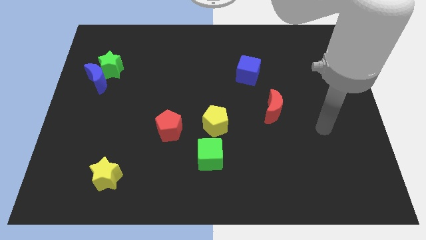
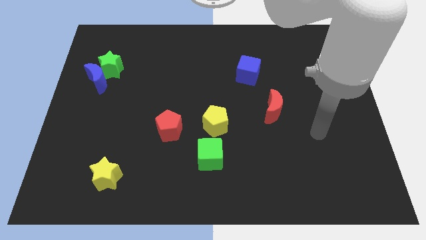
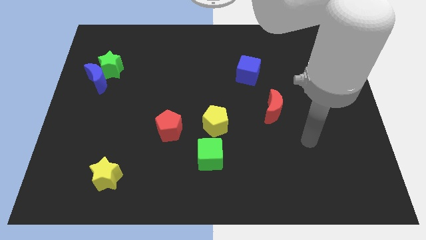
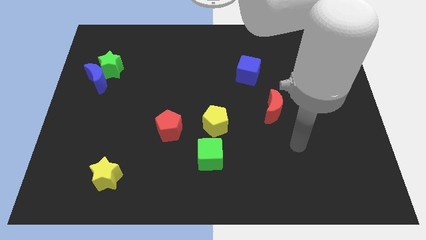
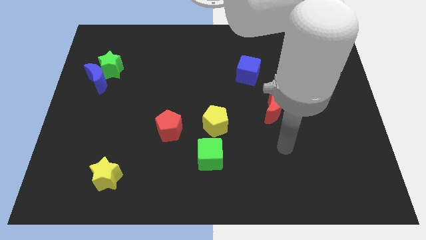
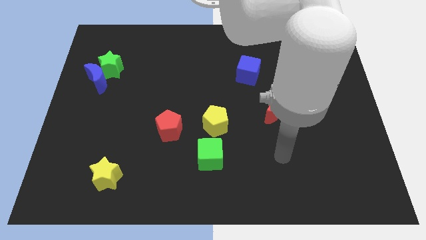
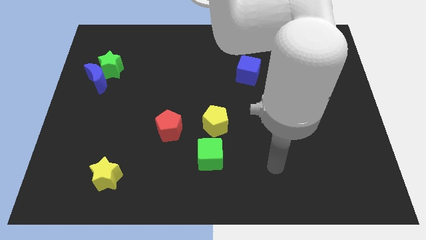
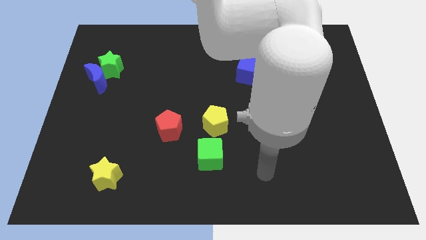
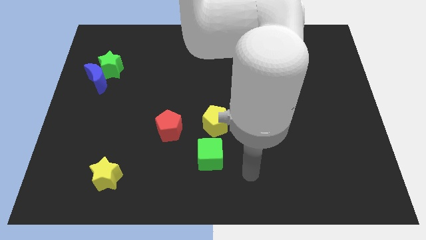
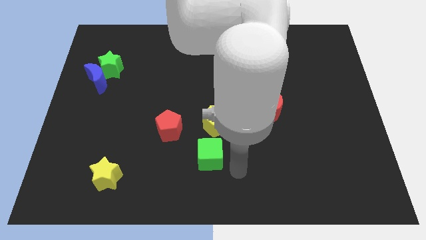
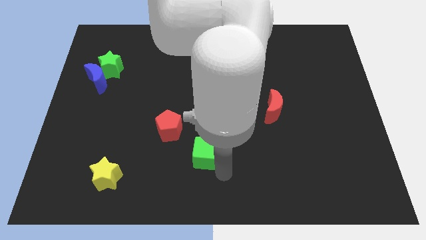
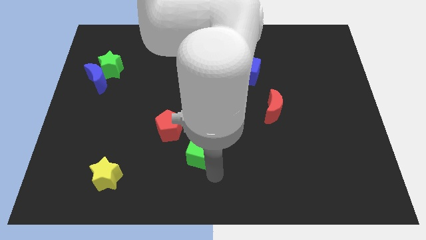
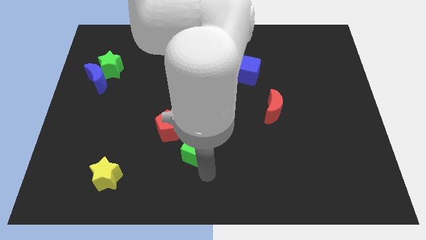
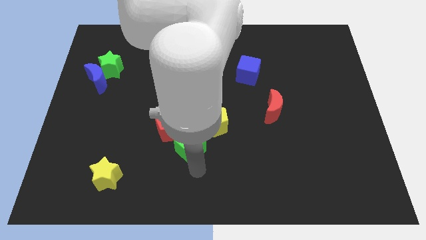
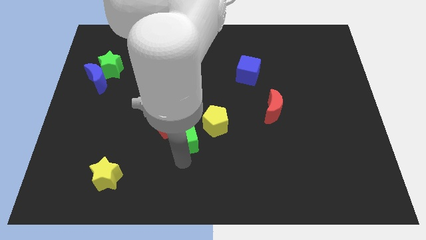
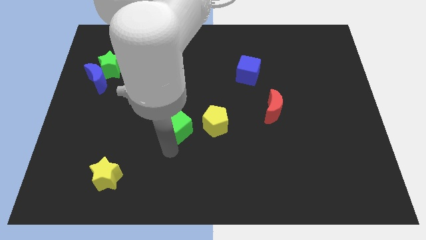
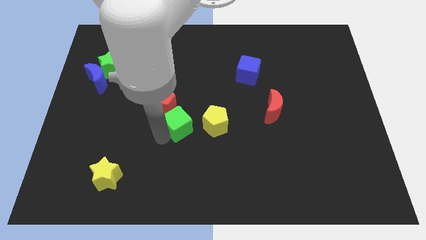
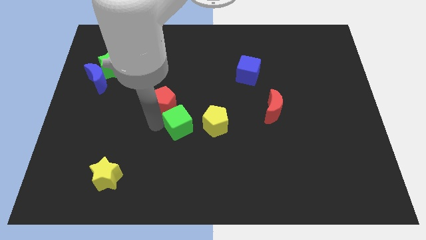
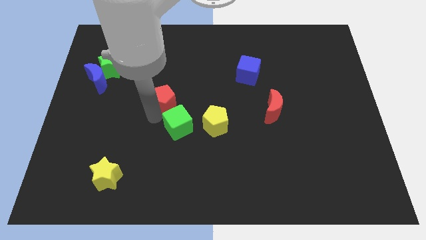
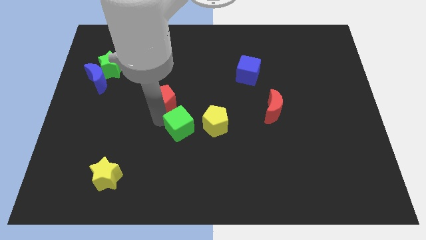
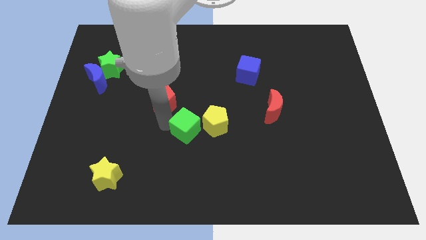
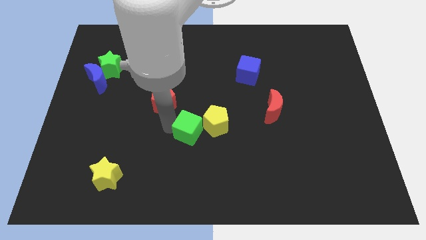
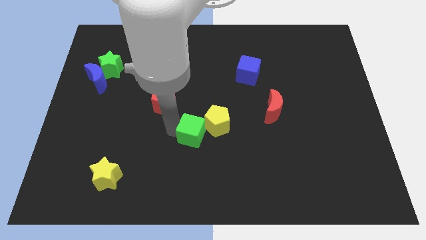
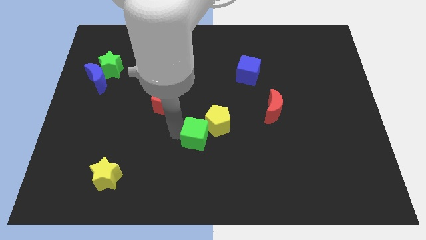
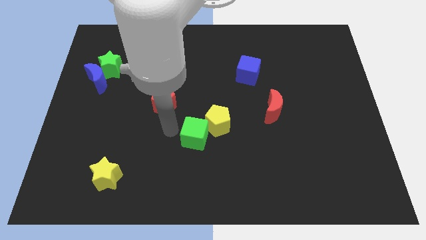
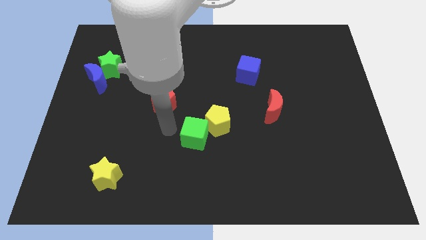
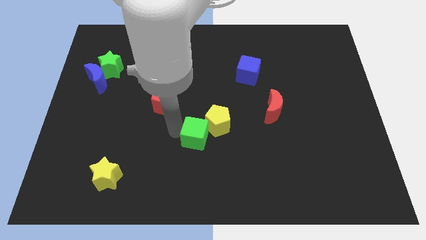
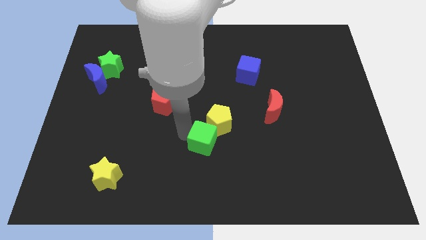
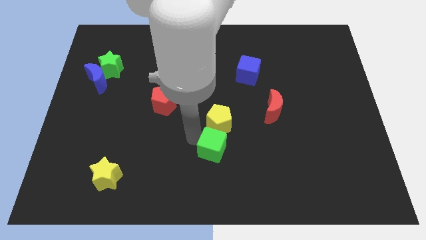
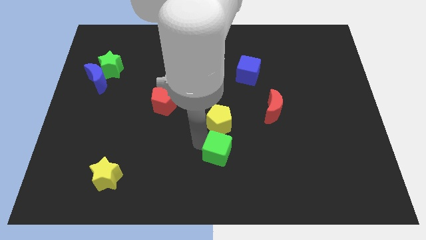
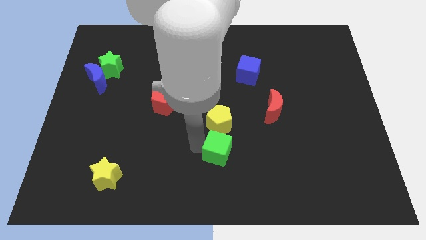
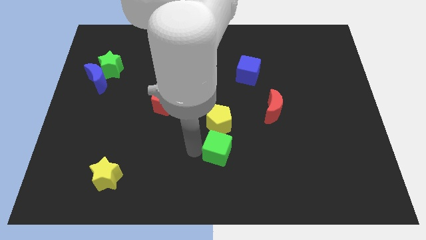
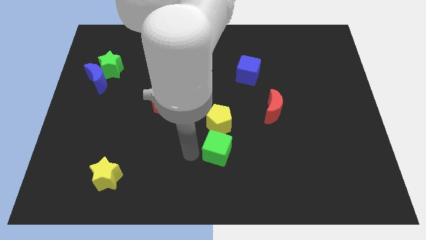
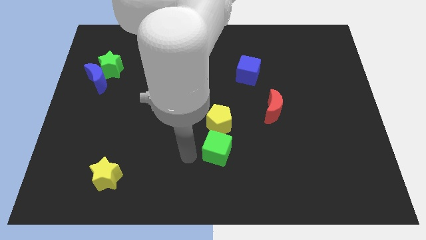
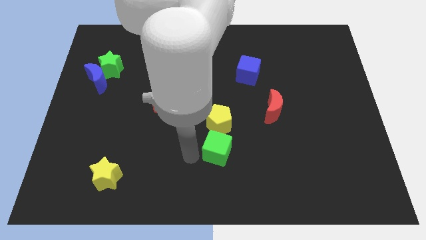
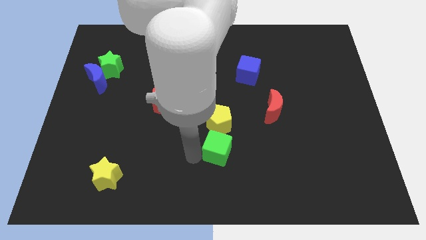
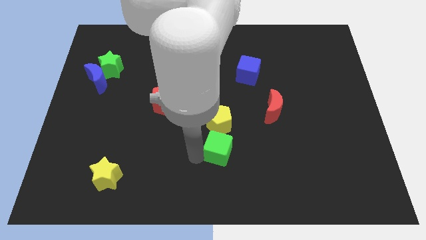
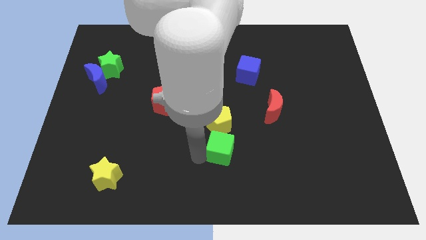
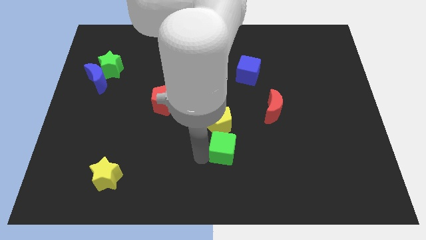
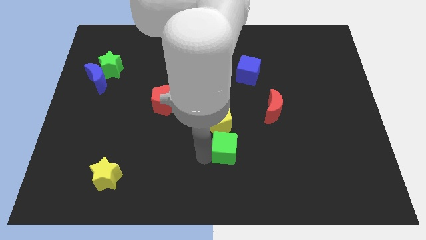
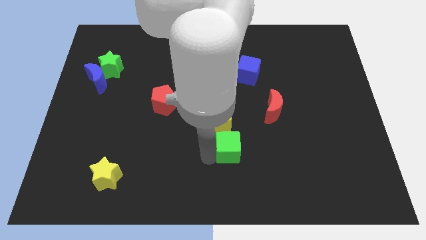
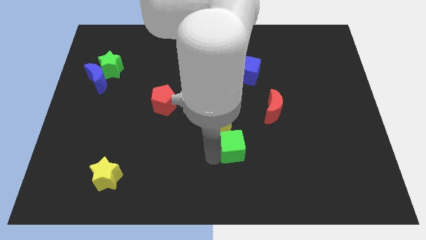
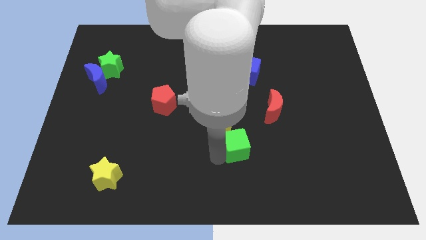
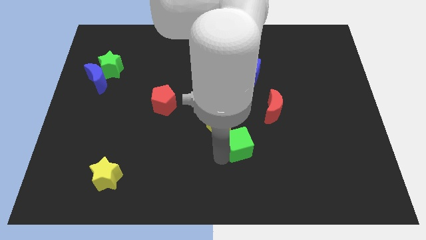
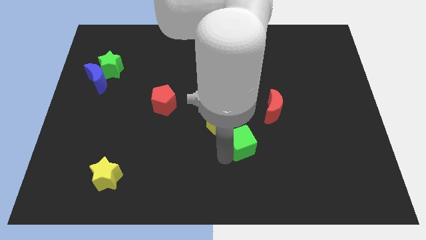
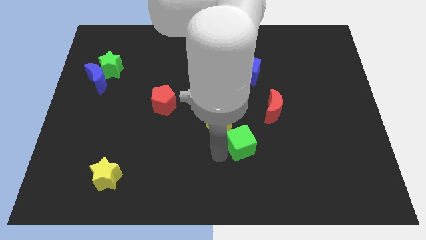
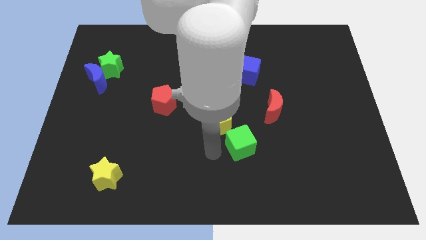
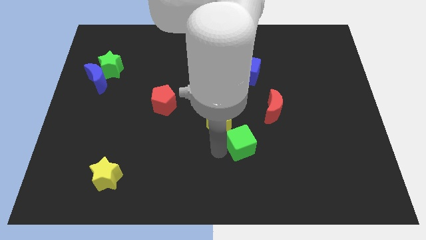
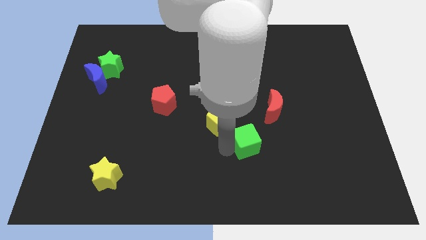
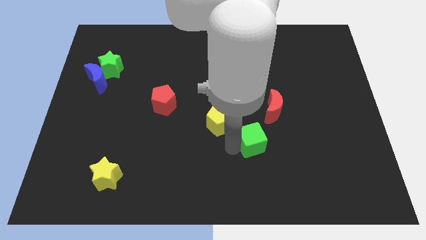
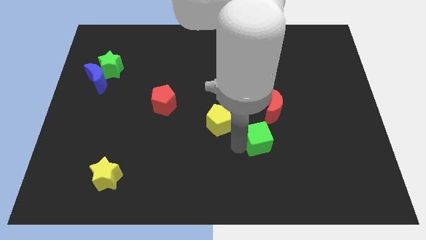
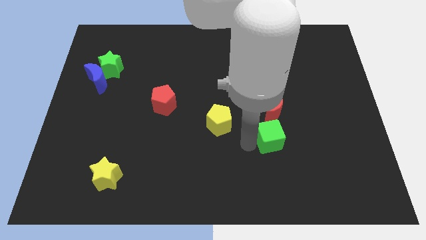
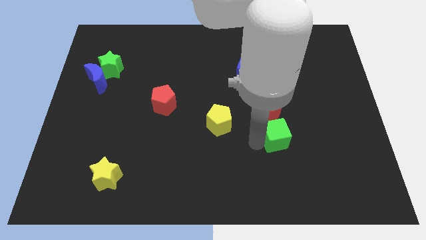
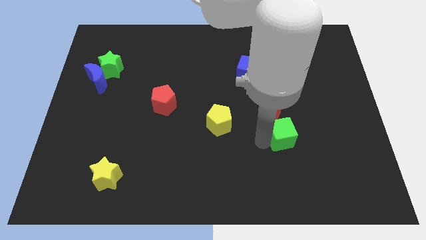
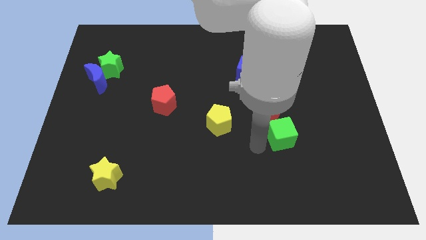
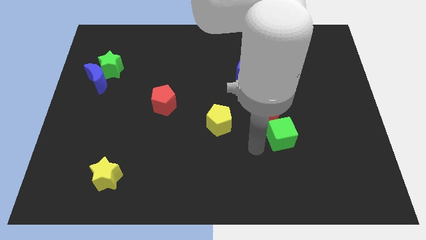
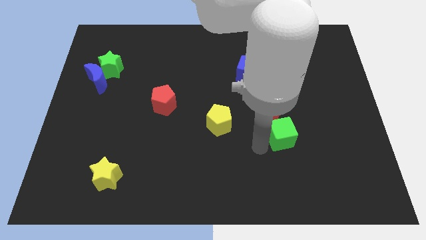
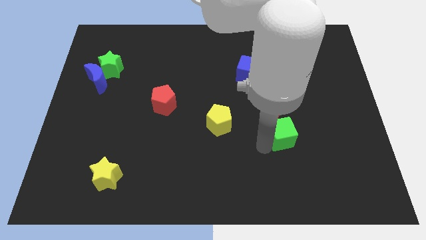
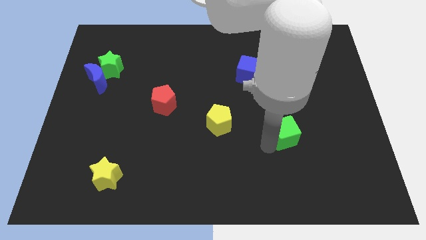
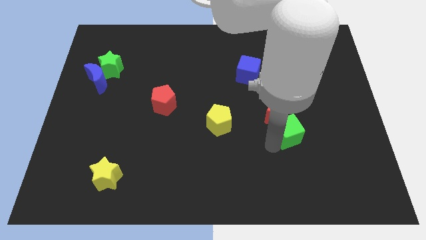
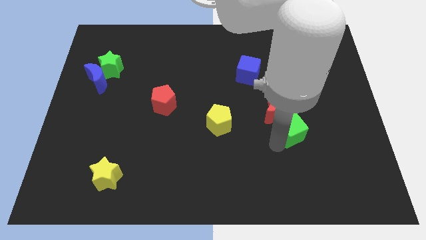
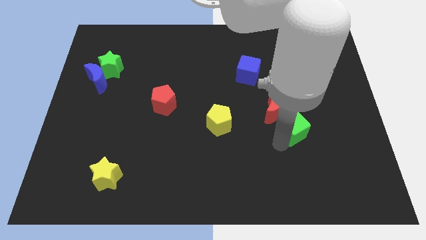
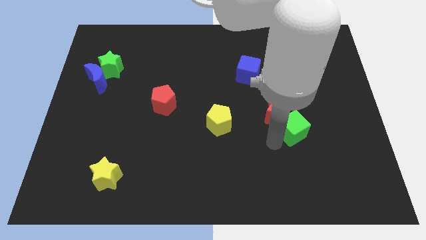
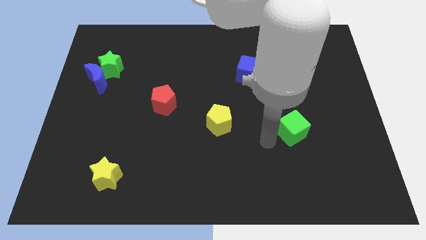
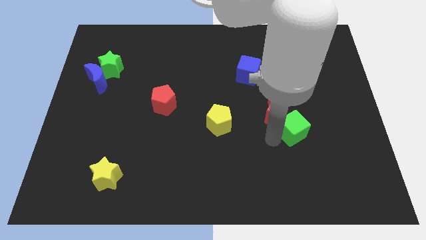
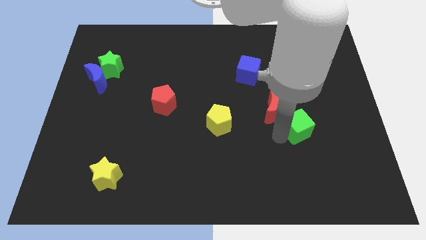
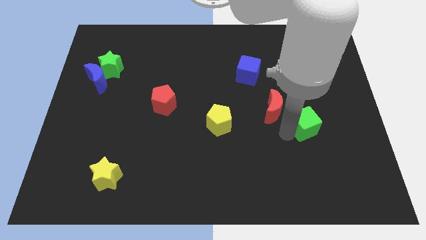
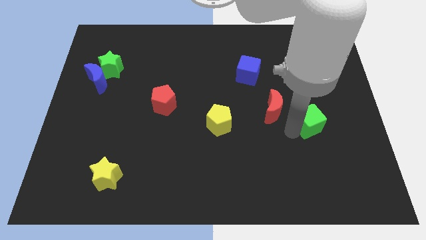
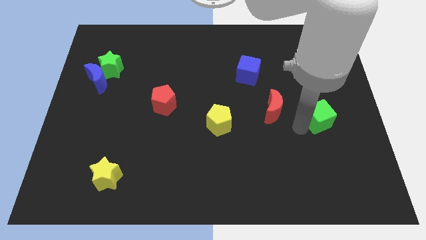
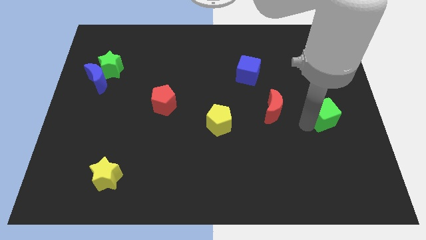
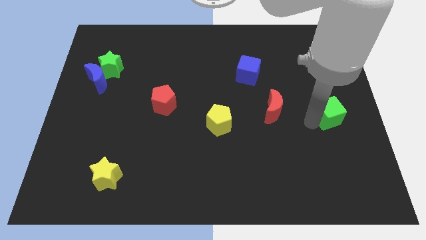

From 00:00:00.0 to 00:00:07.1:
put the green cube to the right side
